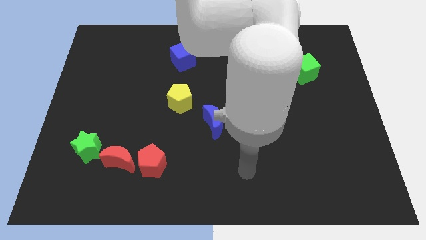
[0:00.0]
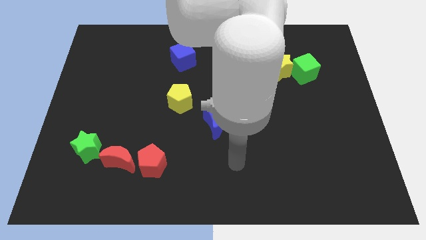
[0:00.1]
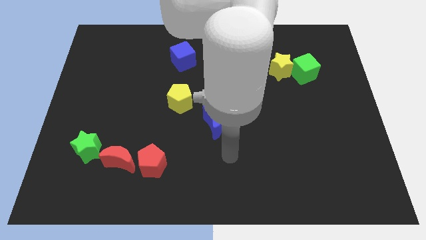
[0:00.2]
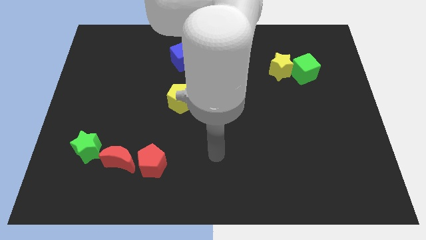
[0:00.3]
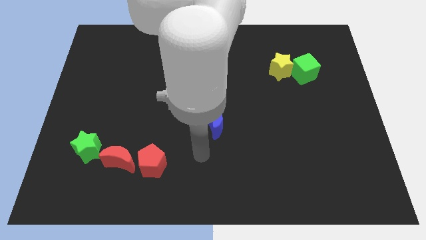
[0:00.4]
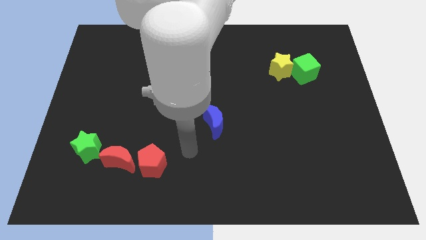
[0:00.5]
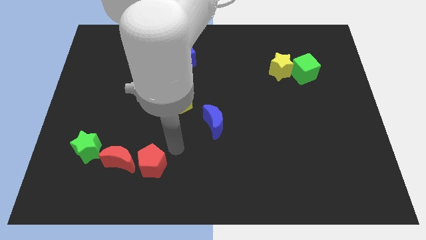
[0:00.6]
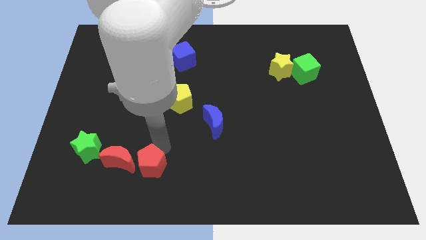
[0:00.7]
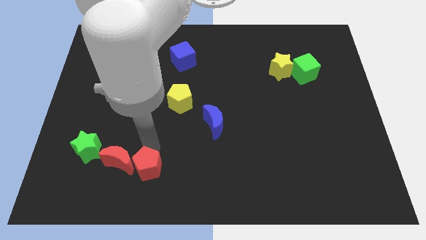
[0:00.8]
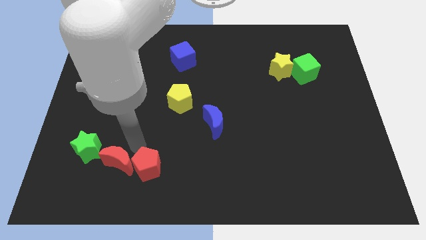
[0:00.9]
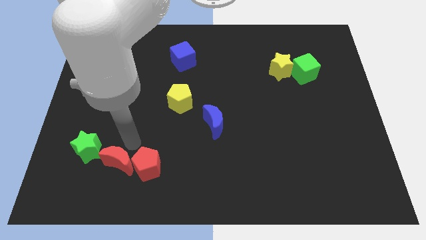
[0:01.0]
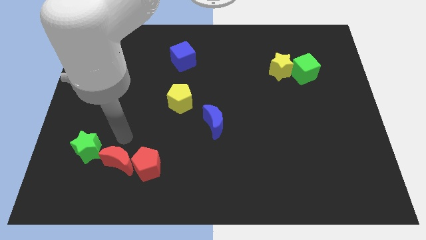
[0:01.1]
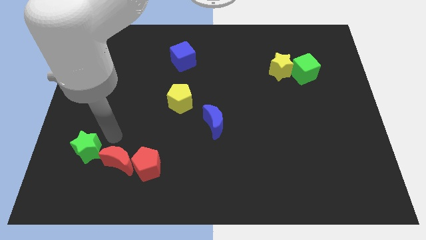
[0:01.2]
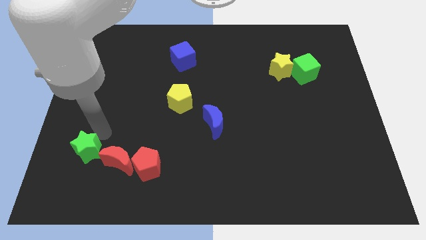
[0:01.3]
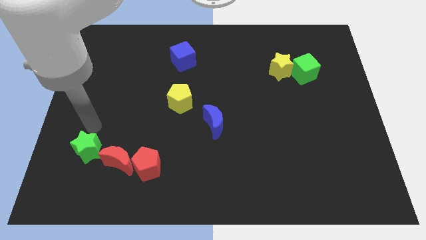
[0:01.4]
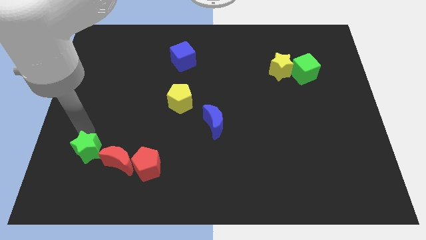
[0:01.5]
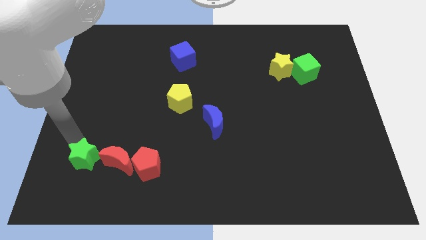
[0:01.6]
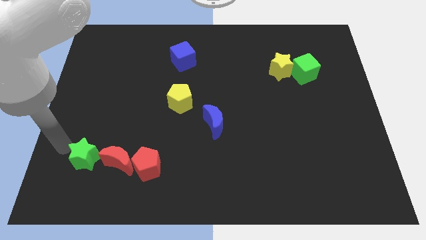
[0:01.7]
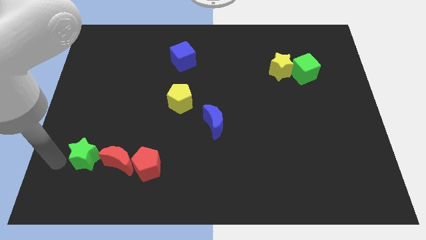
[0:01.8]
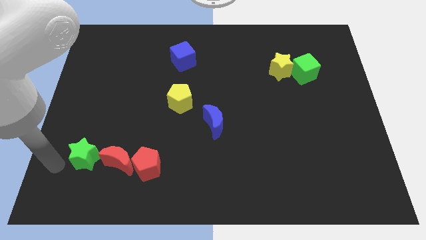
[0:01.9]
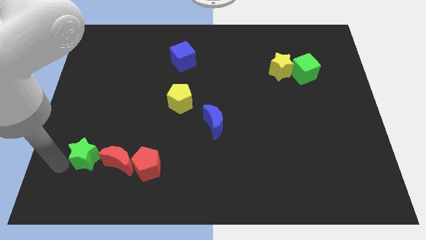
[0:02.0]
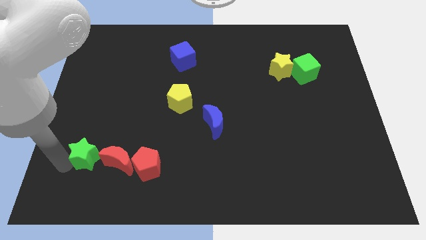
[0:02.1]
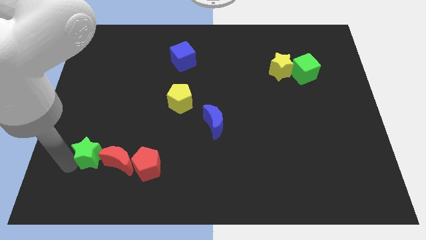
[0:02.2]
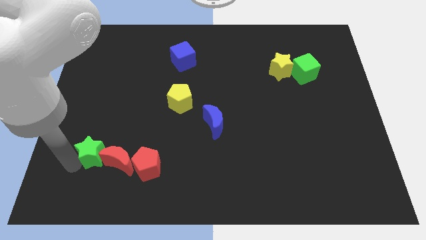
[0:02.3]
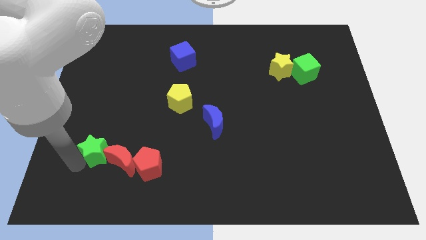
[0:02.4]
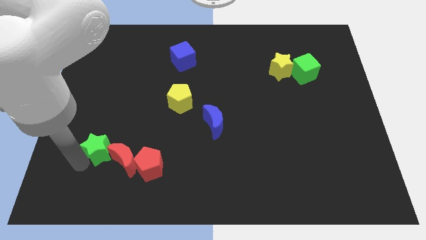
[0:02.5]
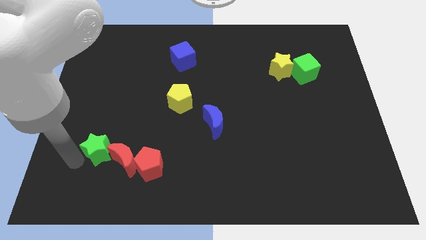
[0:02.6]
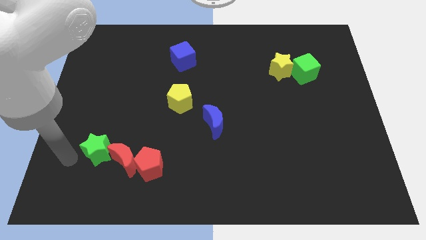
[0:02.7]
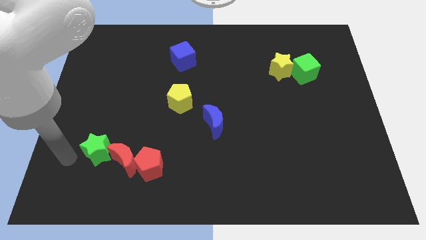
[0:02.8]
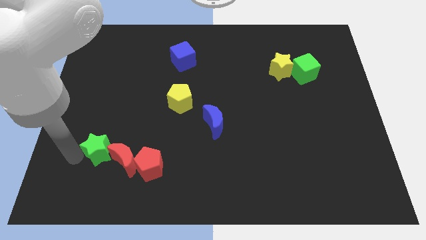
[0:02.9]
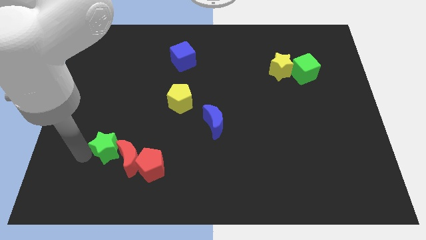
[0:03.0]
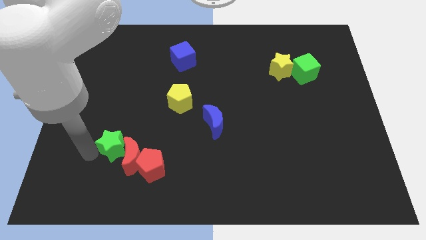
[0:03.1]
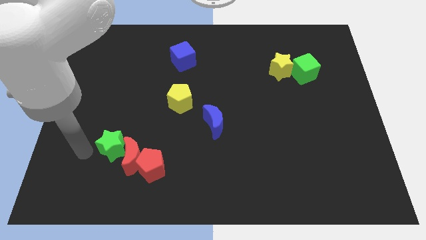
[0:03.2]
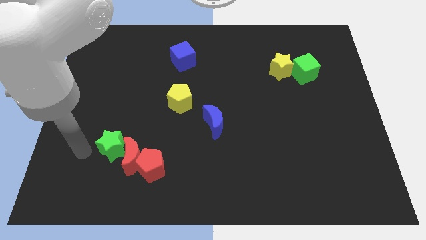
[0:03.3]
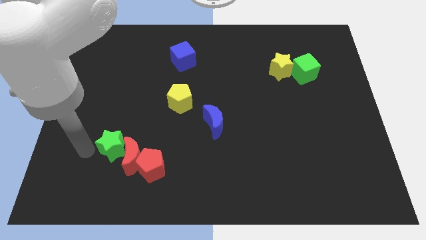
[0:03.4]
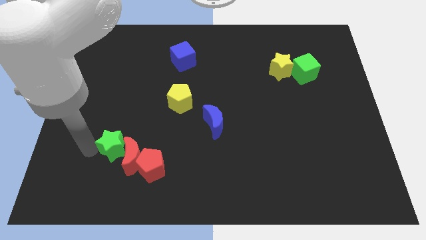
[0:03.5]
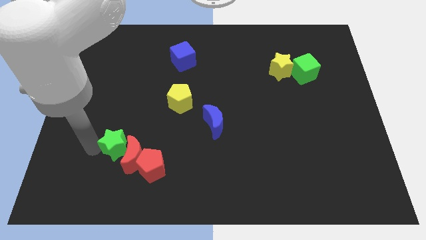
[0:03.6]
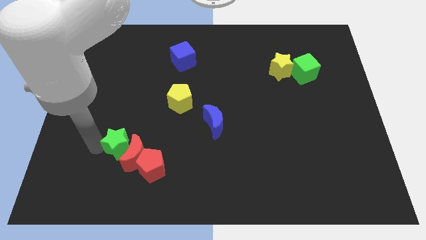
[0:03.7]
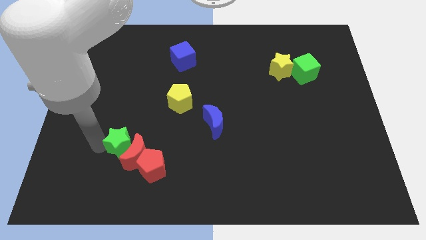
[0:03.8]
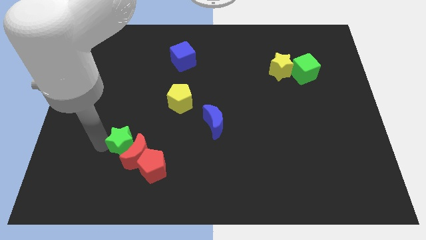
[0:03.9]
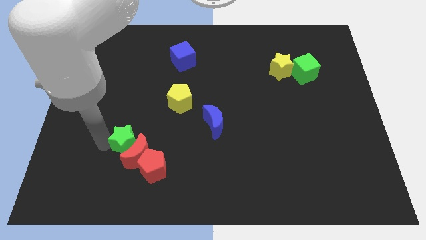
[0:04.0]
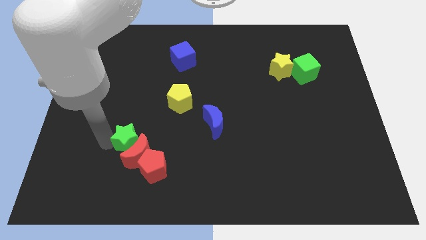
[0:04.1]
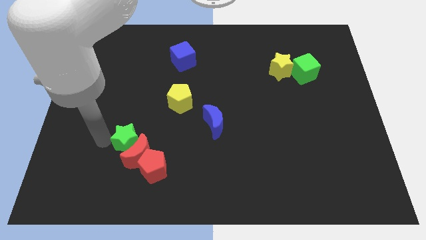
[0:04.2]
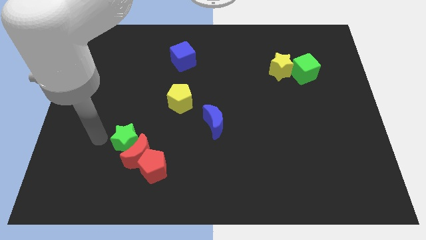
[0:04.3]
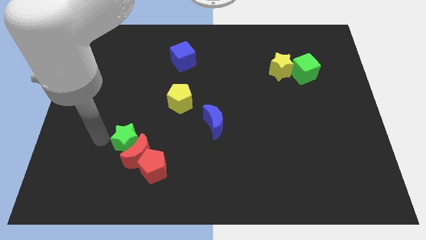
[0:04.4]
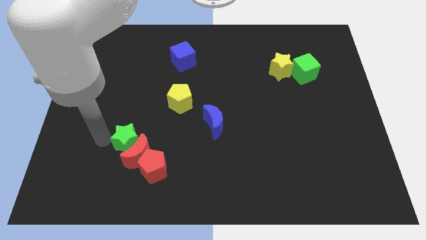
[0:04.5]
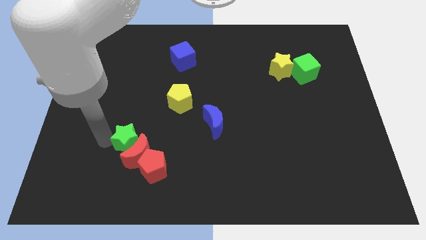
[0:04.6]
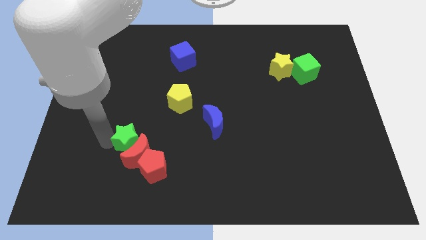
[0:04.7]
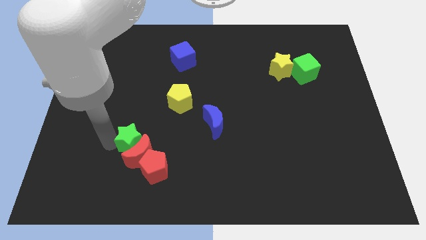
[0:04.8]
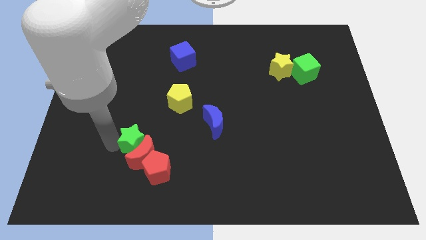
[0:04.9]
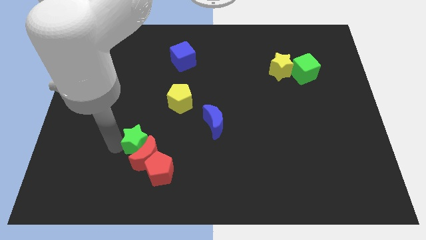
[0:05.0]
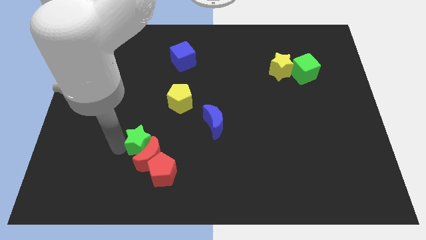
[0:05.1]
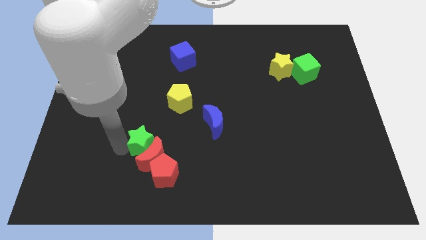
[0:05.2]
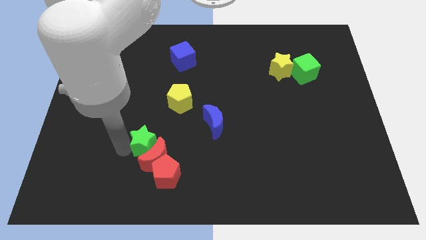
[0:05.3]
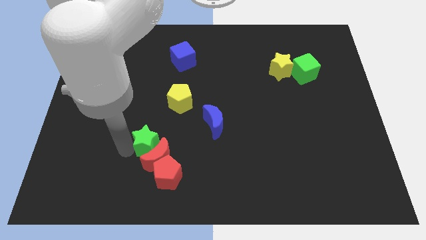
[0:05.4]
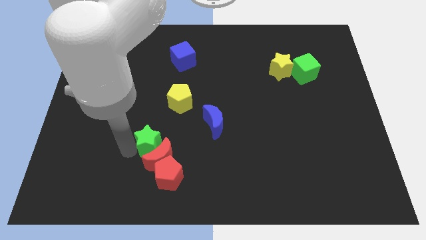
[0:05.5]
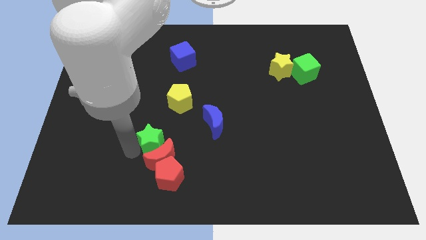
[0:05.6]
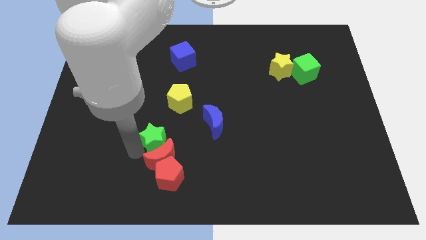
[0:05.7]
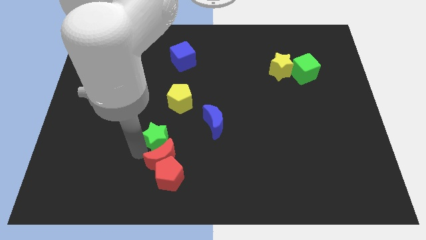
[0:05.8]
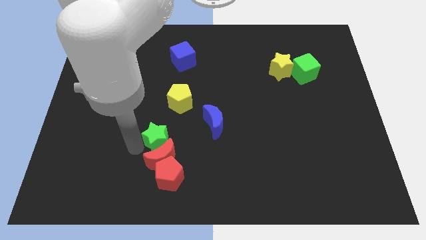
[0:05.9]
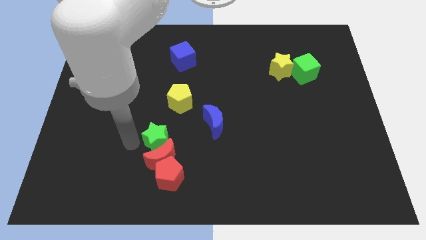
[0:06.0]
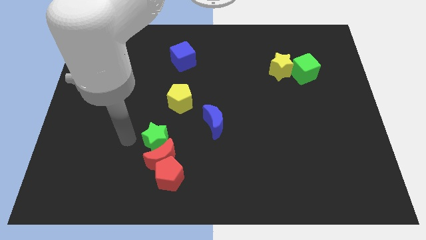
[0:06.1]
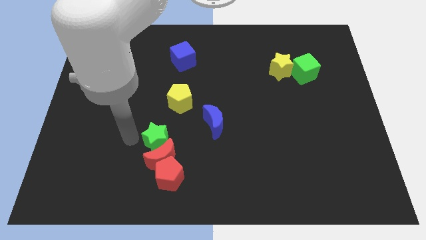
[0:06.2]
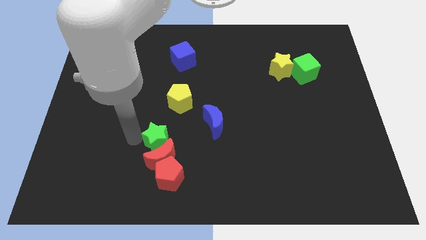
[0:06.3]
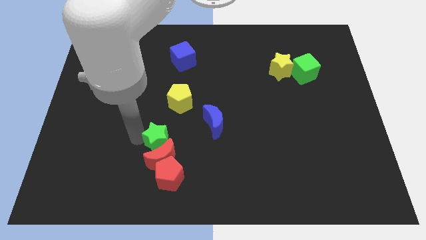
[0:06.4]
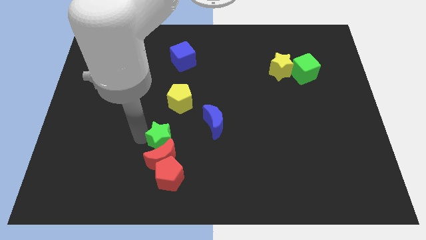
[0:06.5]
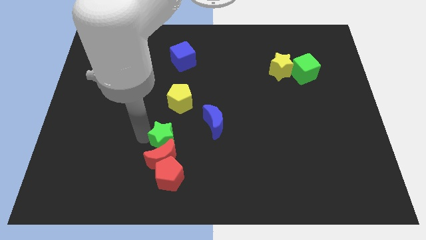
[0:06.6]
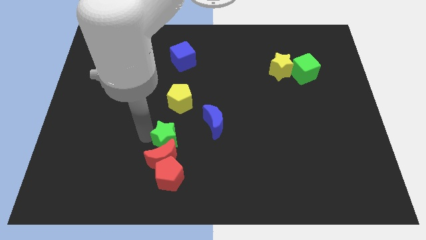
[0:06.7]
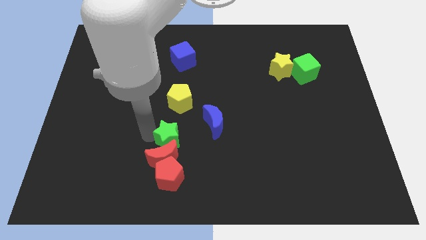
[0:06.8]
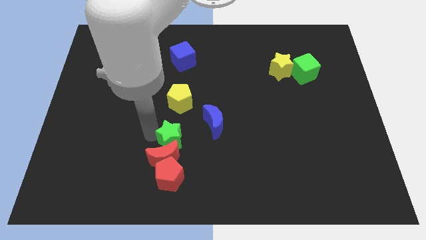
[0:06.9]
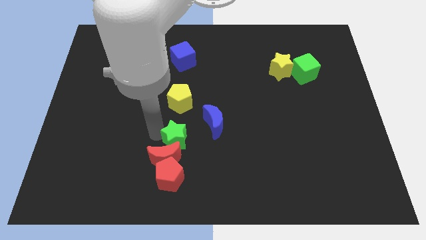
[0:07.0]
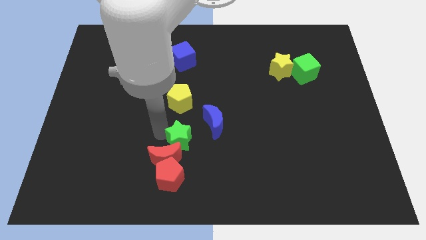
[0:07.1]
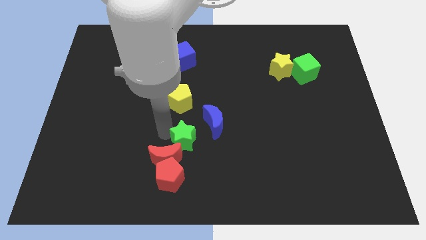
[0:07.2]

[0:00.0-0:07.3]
push the green star to the right

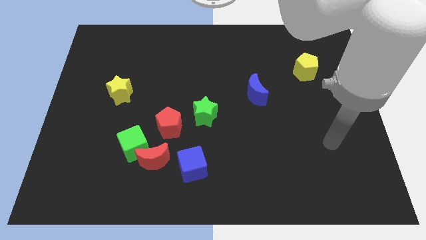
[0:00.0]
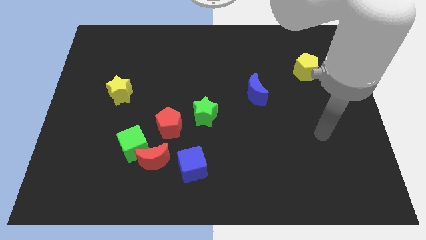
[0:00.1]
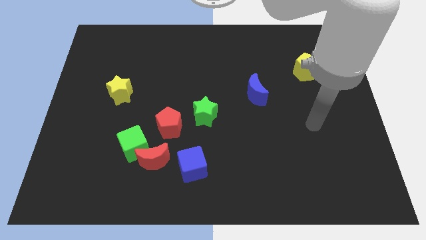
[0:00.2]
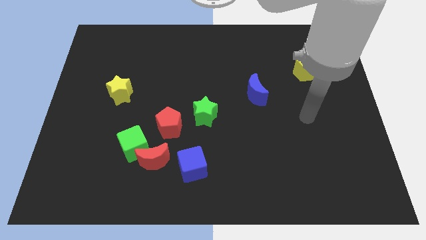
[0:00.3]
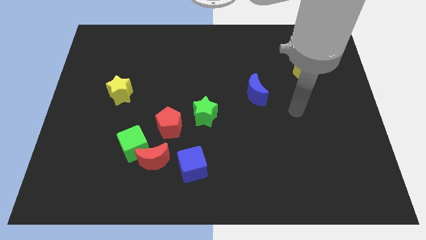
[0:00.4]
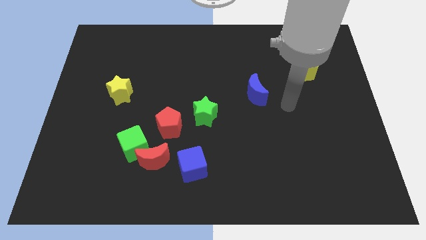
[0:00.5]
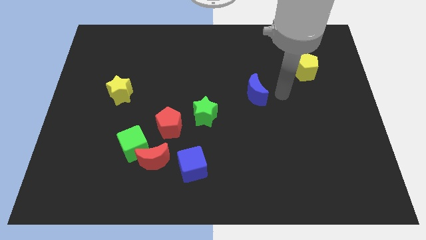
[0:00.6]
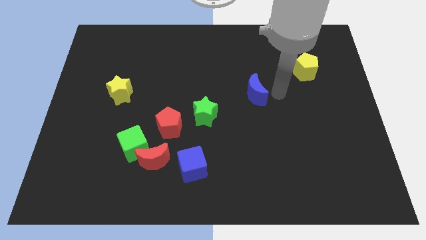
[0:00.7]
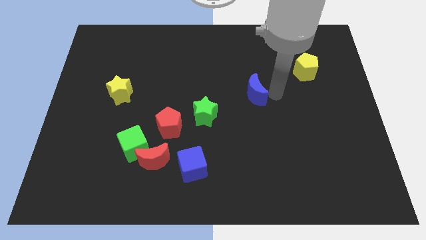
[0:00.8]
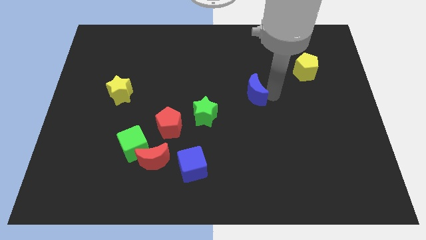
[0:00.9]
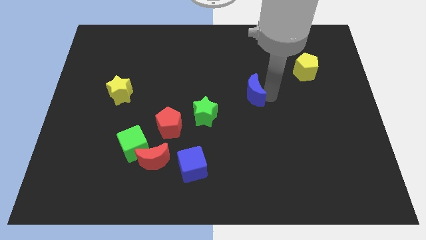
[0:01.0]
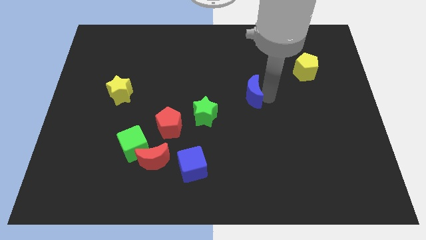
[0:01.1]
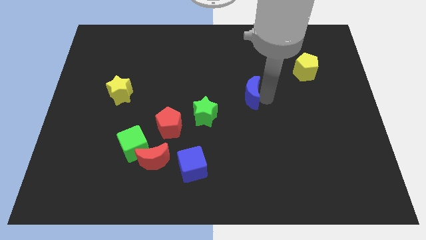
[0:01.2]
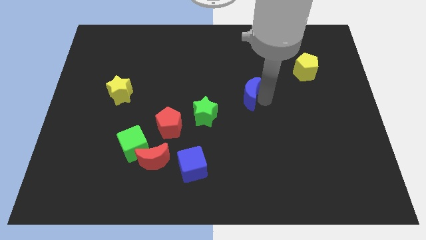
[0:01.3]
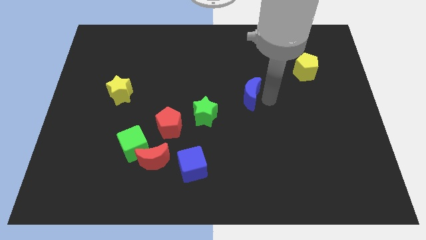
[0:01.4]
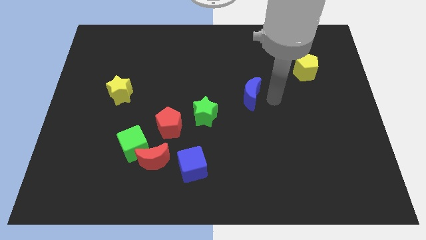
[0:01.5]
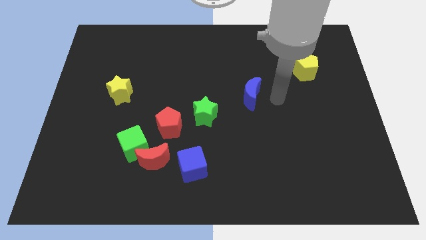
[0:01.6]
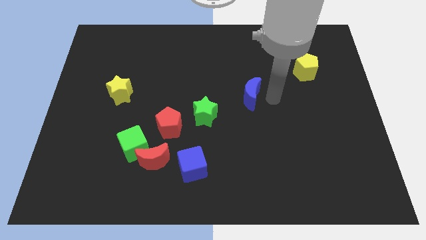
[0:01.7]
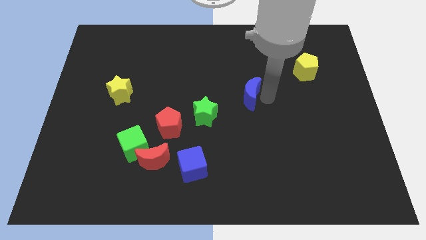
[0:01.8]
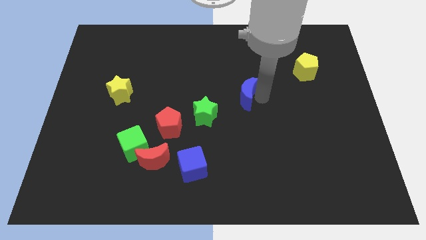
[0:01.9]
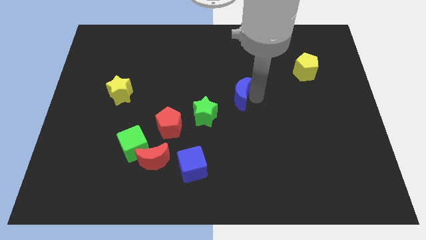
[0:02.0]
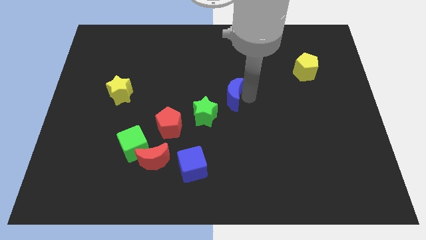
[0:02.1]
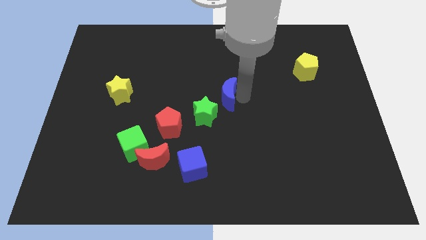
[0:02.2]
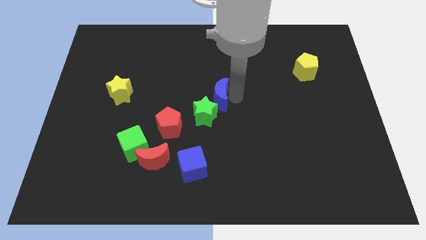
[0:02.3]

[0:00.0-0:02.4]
slide the blue moon to the left a little bit
